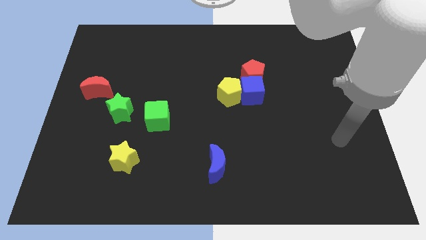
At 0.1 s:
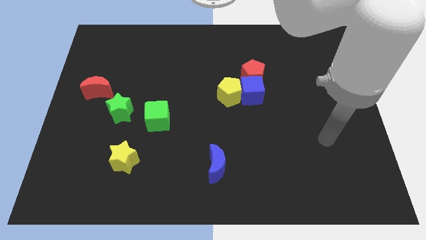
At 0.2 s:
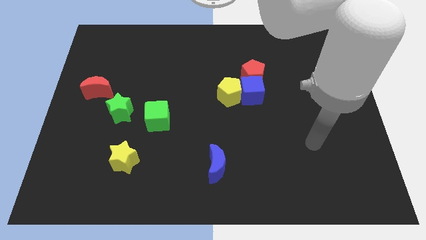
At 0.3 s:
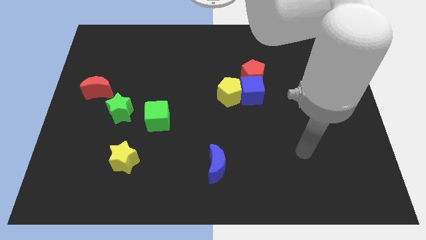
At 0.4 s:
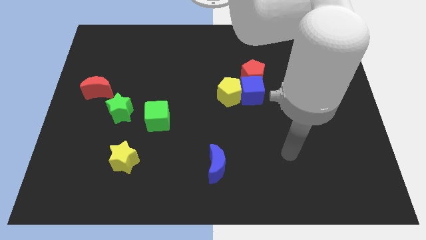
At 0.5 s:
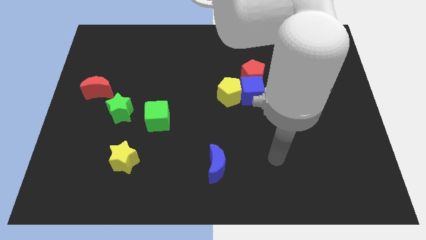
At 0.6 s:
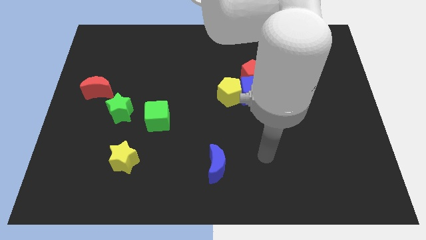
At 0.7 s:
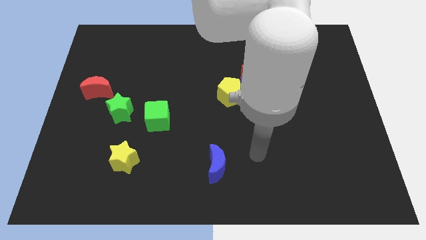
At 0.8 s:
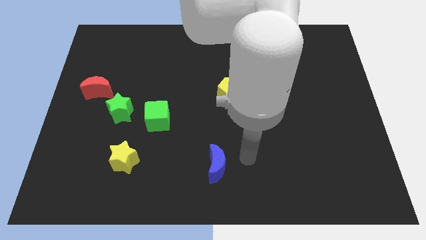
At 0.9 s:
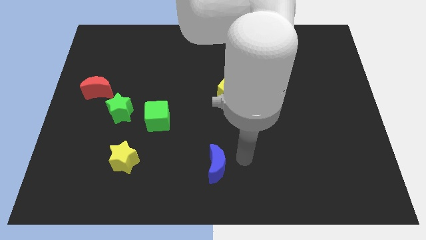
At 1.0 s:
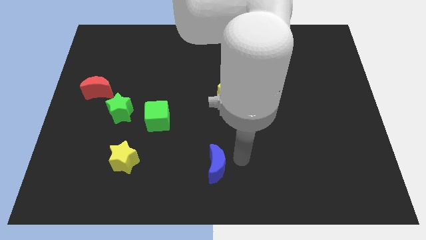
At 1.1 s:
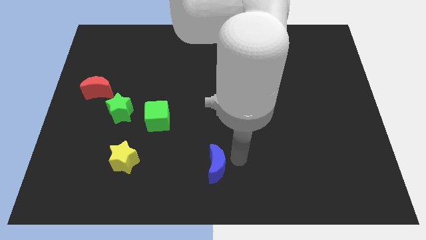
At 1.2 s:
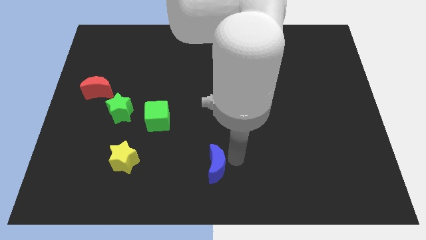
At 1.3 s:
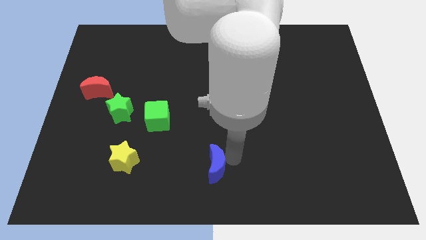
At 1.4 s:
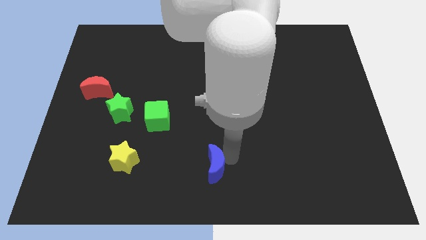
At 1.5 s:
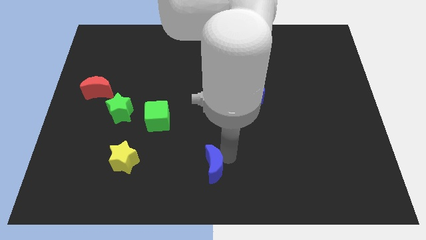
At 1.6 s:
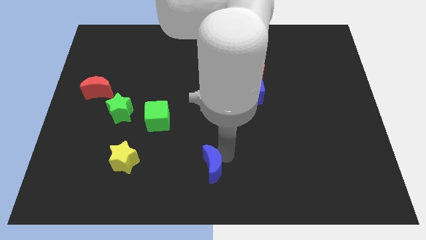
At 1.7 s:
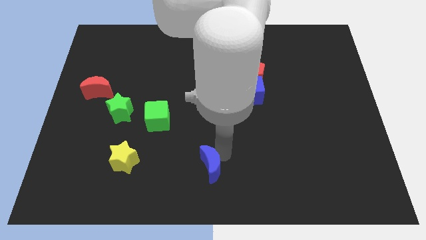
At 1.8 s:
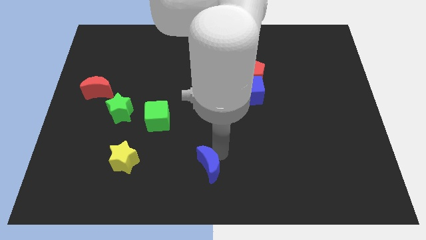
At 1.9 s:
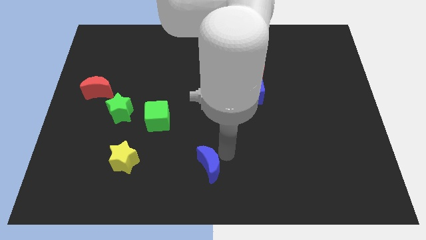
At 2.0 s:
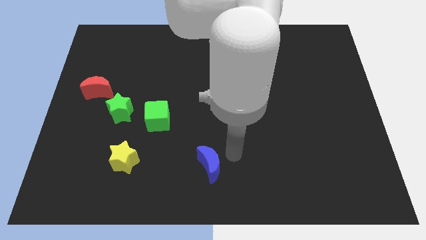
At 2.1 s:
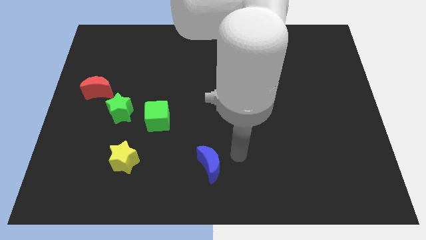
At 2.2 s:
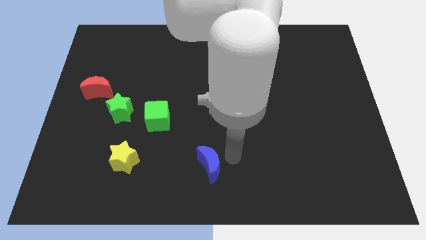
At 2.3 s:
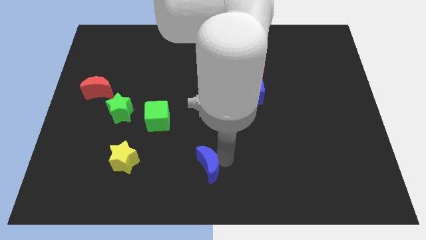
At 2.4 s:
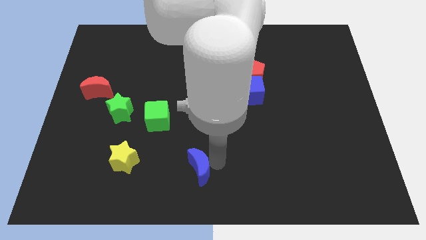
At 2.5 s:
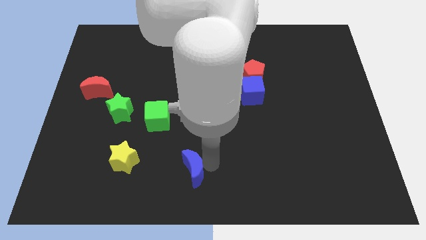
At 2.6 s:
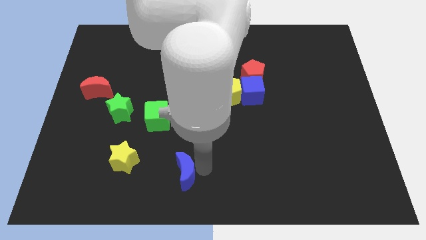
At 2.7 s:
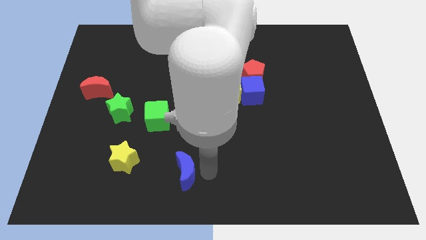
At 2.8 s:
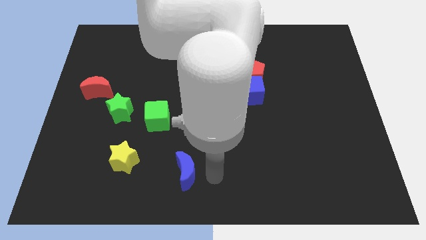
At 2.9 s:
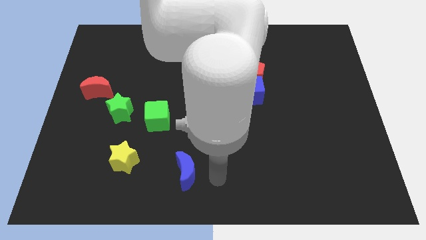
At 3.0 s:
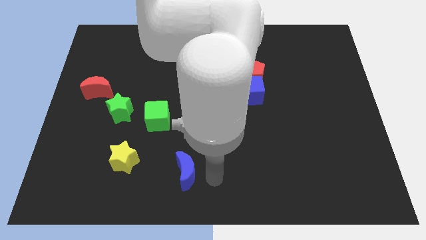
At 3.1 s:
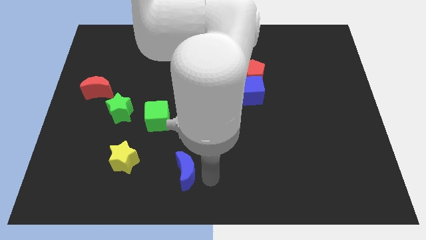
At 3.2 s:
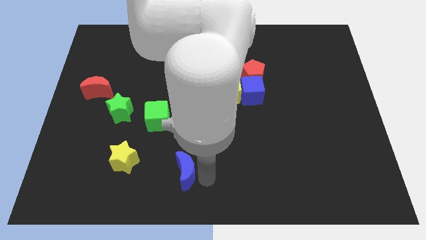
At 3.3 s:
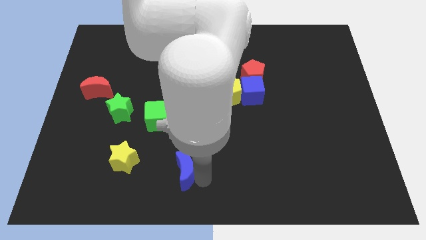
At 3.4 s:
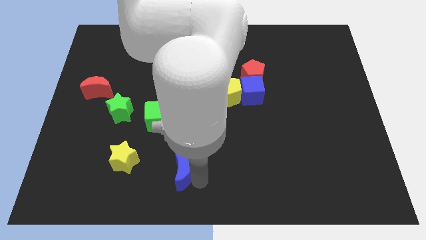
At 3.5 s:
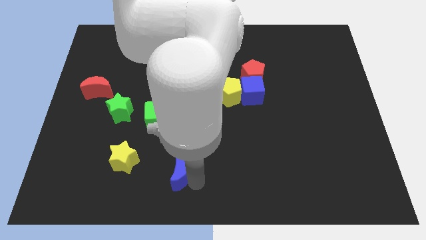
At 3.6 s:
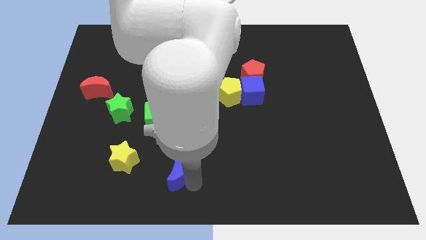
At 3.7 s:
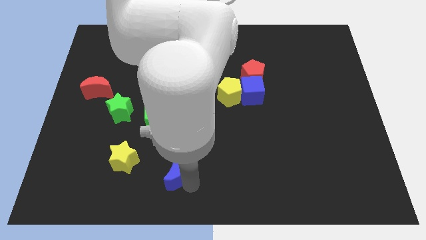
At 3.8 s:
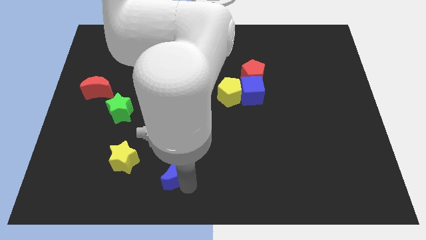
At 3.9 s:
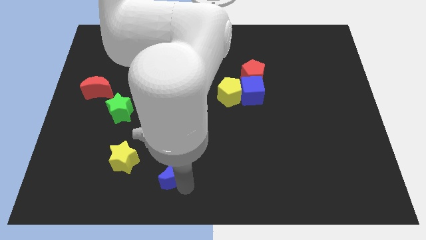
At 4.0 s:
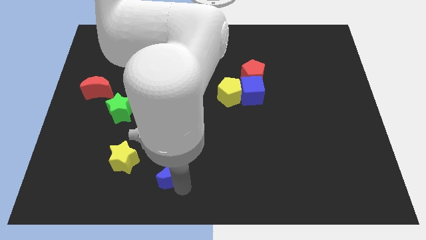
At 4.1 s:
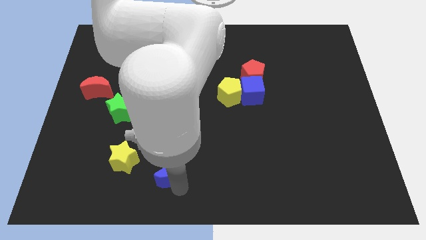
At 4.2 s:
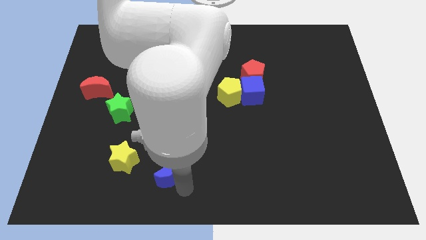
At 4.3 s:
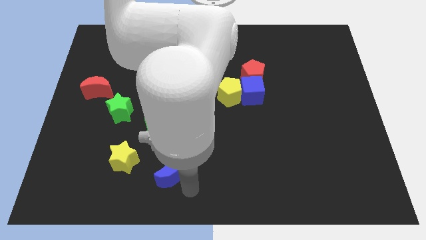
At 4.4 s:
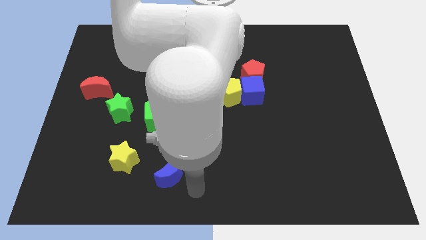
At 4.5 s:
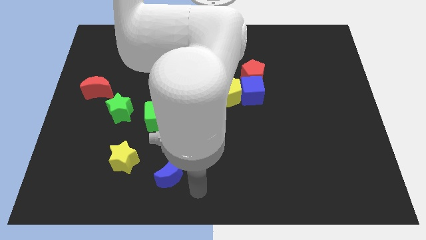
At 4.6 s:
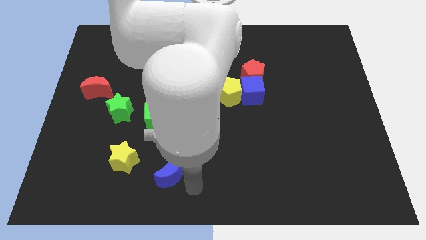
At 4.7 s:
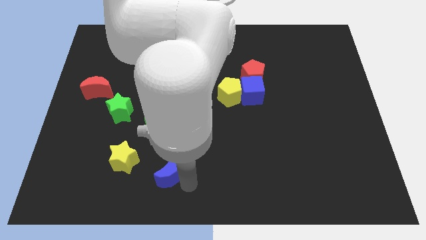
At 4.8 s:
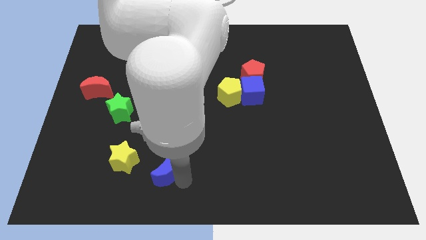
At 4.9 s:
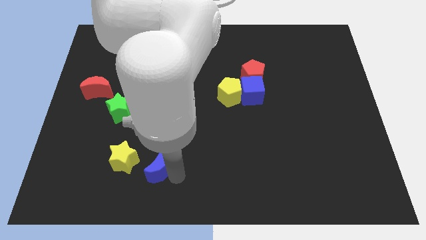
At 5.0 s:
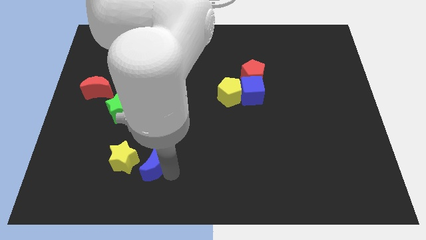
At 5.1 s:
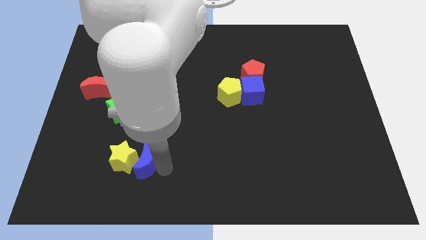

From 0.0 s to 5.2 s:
move the blue moon towards the yellow star
